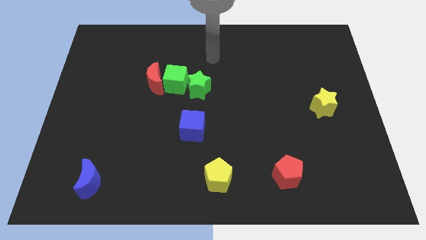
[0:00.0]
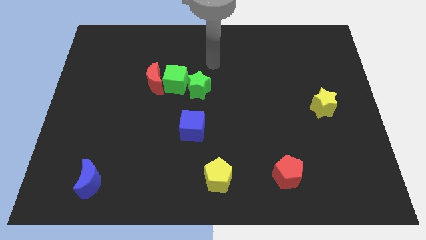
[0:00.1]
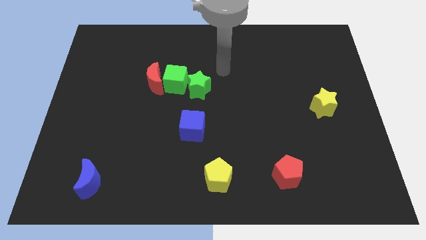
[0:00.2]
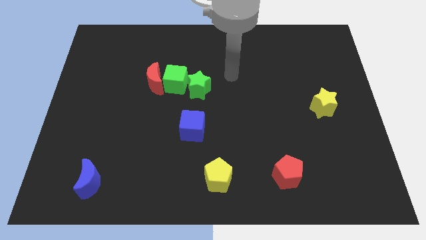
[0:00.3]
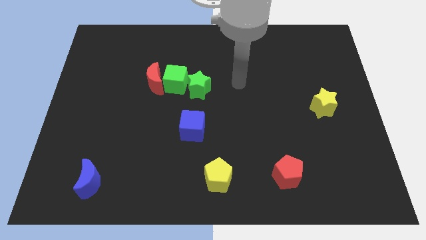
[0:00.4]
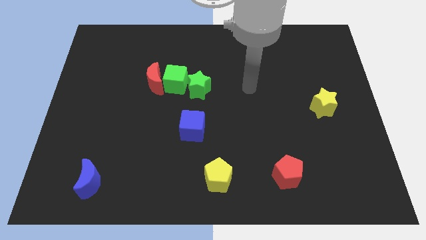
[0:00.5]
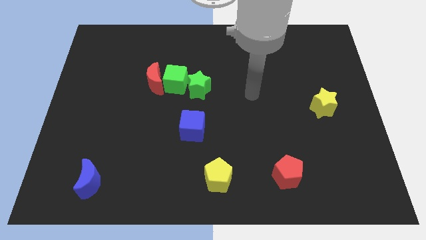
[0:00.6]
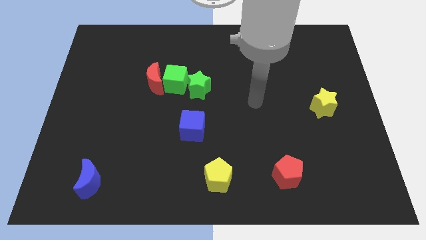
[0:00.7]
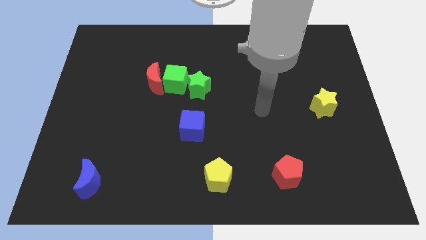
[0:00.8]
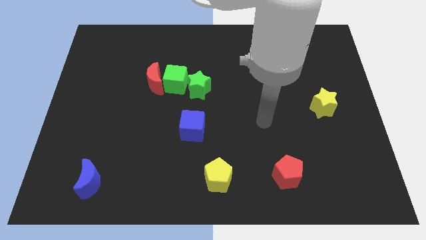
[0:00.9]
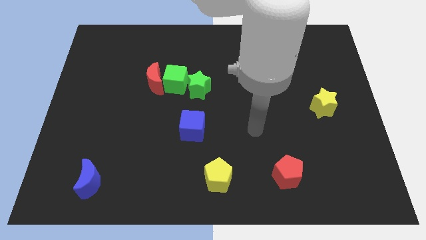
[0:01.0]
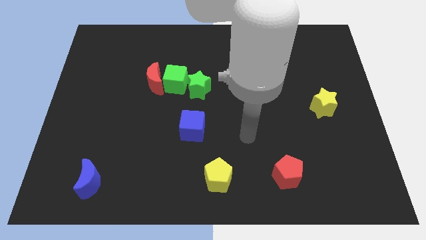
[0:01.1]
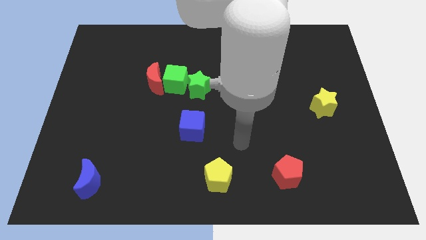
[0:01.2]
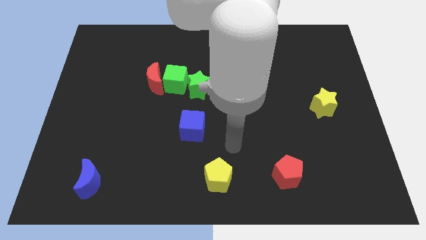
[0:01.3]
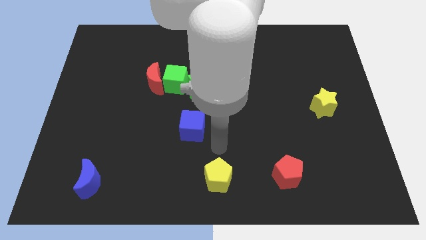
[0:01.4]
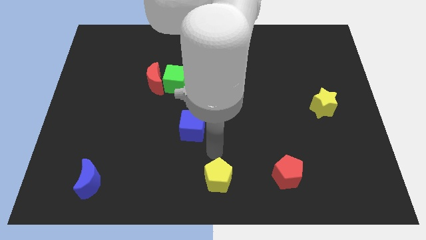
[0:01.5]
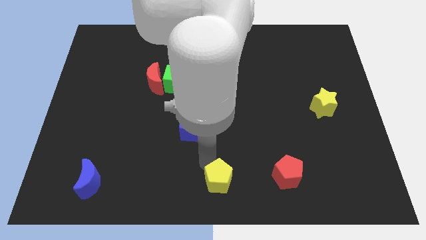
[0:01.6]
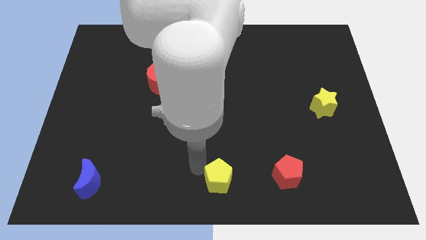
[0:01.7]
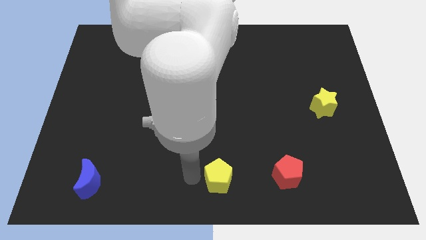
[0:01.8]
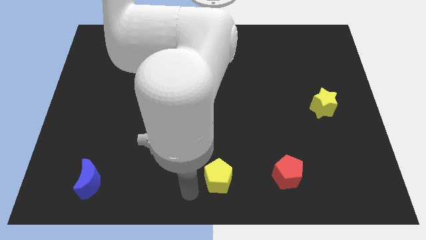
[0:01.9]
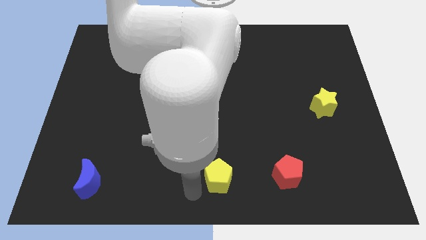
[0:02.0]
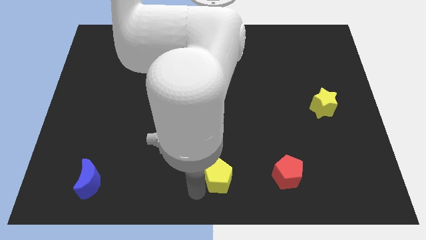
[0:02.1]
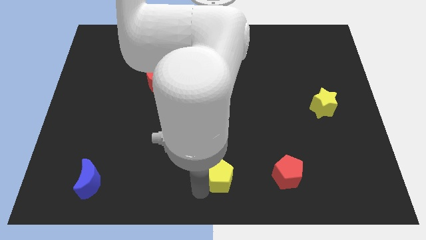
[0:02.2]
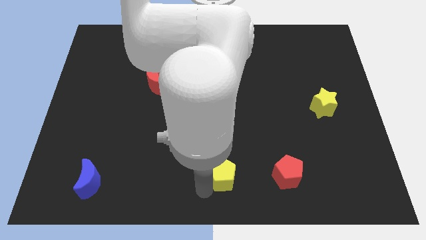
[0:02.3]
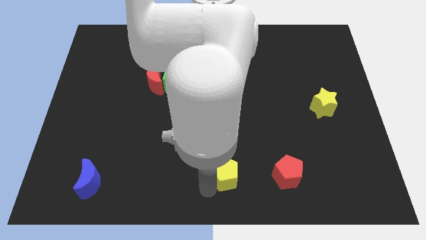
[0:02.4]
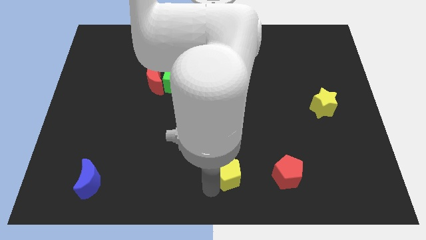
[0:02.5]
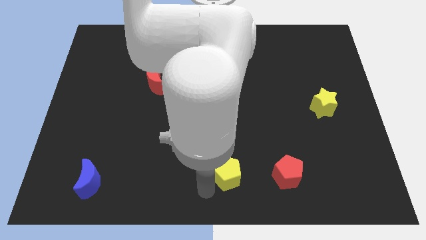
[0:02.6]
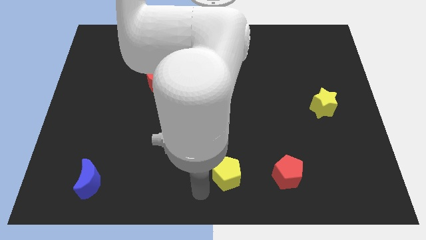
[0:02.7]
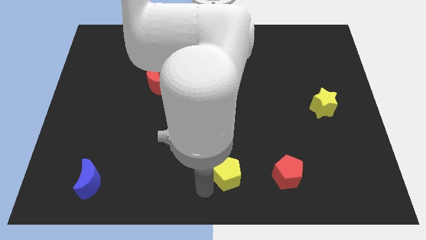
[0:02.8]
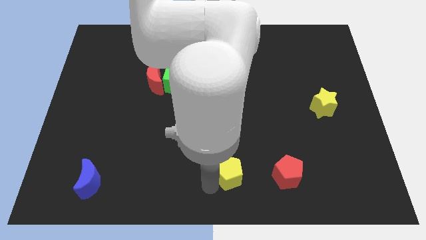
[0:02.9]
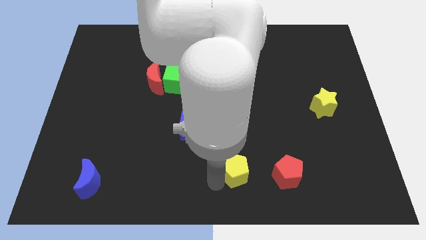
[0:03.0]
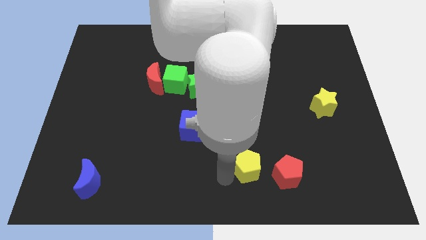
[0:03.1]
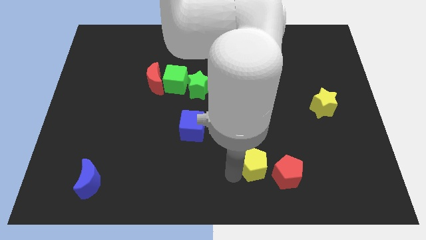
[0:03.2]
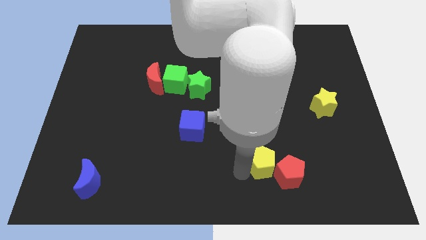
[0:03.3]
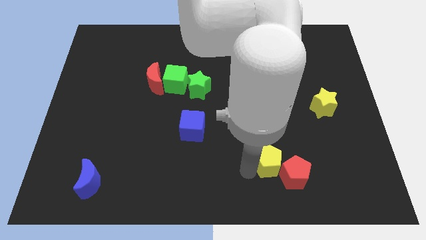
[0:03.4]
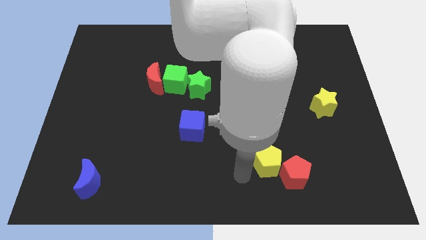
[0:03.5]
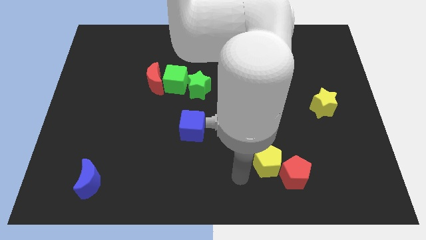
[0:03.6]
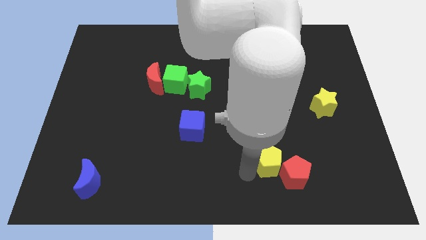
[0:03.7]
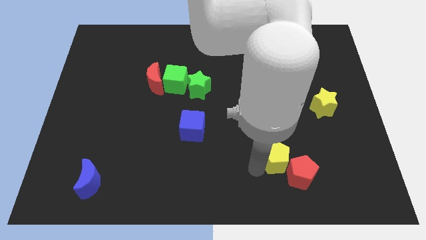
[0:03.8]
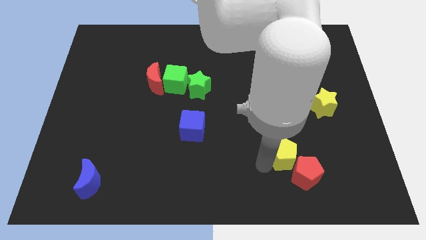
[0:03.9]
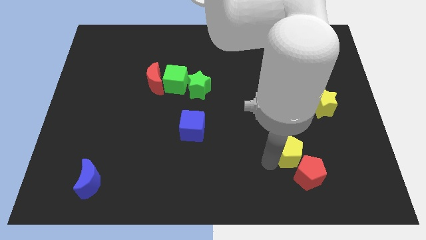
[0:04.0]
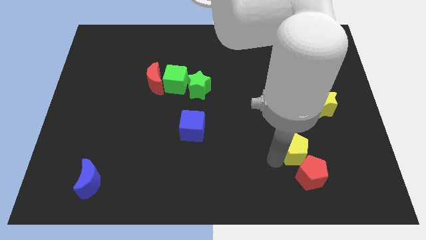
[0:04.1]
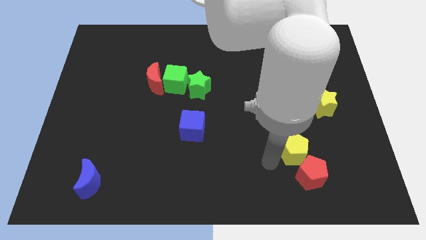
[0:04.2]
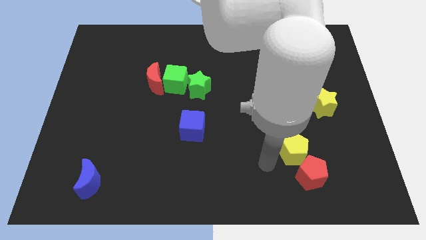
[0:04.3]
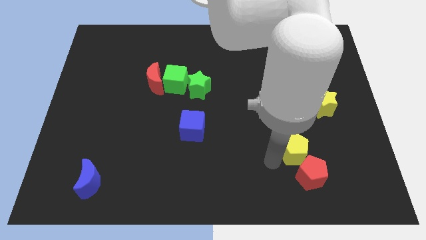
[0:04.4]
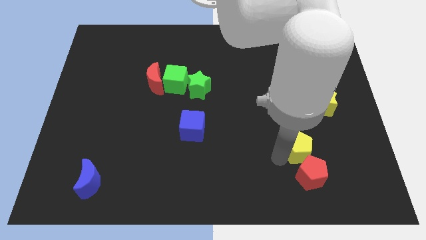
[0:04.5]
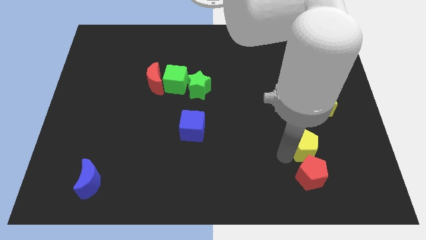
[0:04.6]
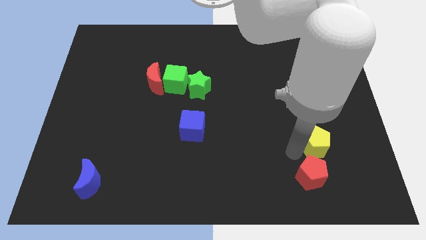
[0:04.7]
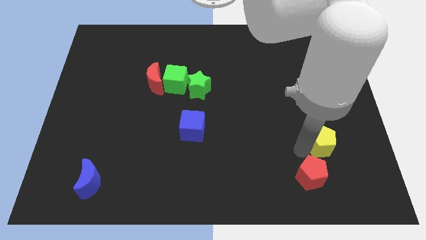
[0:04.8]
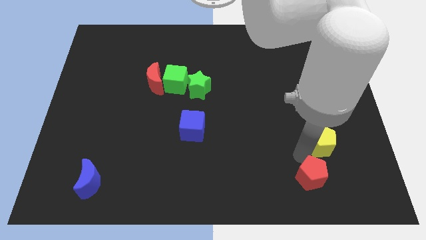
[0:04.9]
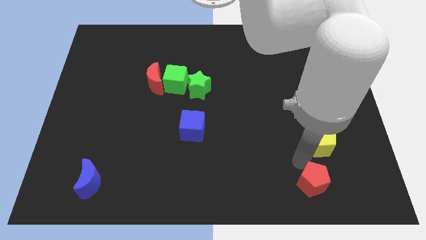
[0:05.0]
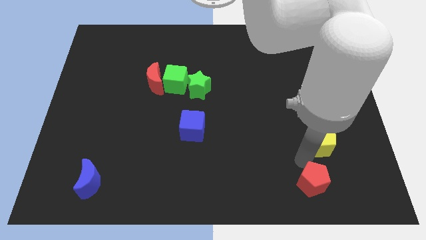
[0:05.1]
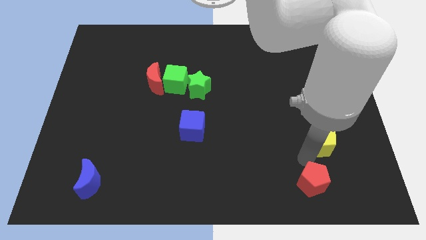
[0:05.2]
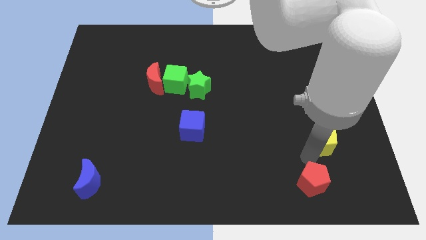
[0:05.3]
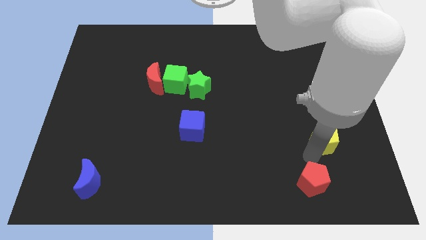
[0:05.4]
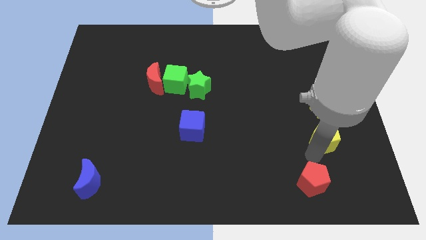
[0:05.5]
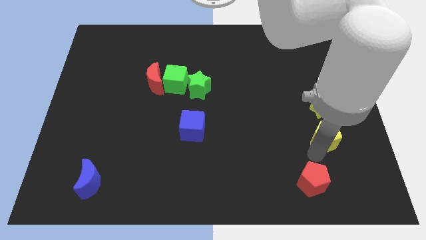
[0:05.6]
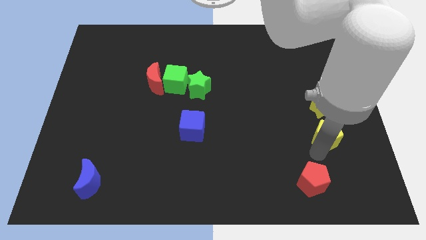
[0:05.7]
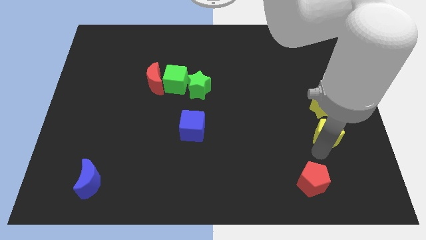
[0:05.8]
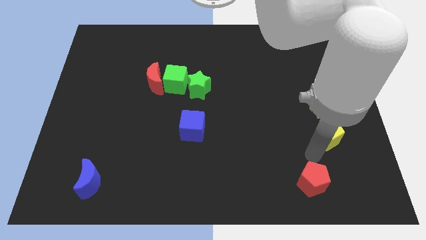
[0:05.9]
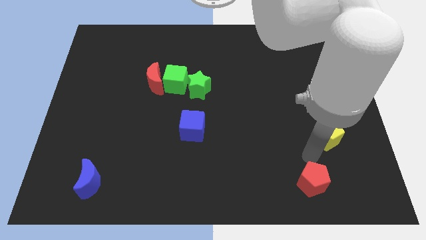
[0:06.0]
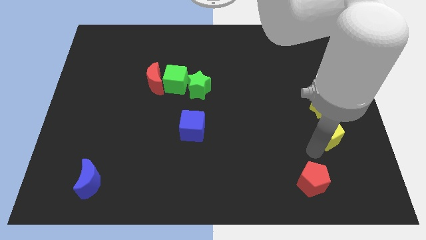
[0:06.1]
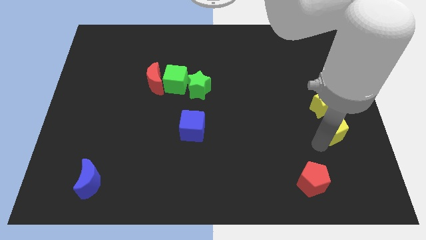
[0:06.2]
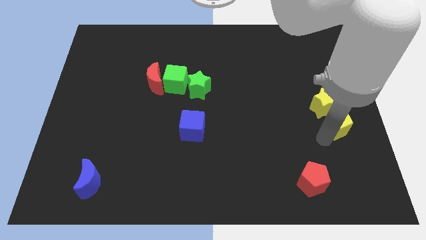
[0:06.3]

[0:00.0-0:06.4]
move the yellow pentagon to the right side
